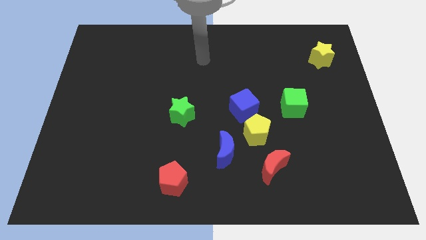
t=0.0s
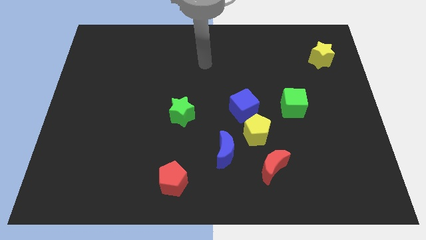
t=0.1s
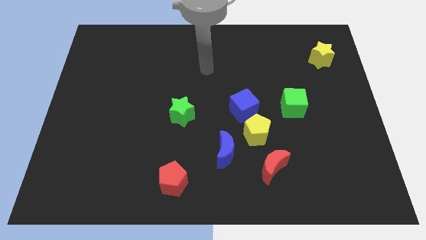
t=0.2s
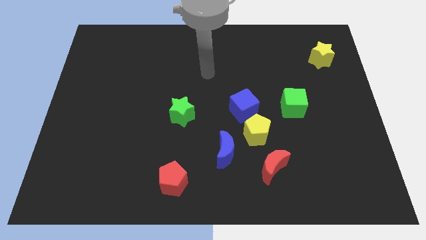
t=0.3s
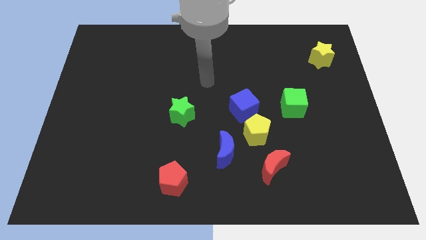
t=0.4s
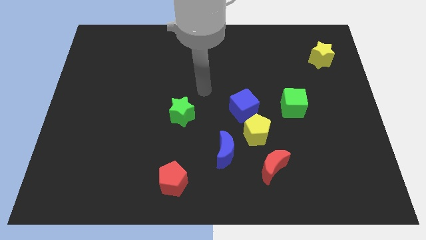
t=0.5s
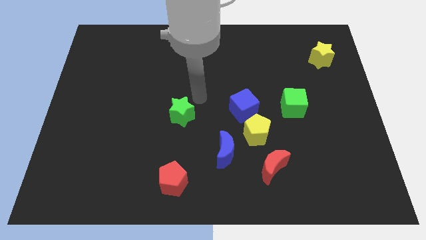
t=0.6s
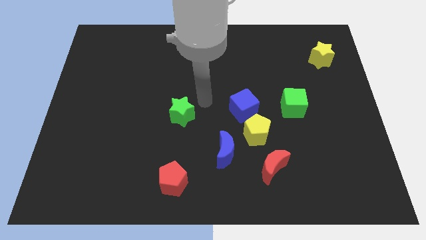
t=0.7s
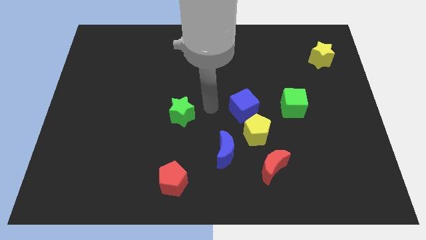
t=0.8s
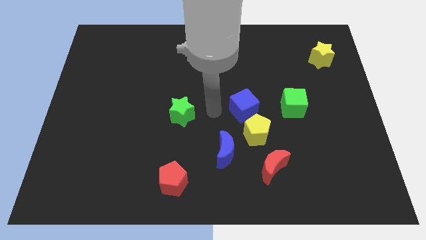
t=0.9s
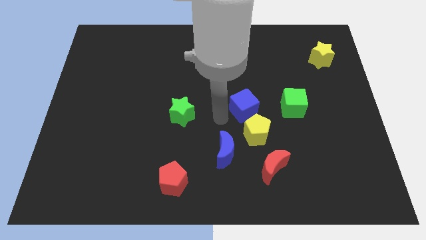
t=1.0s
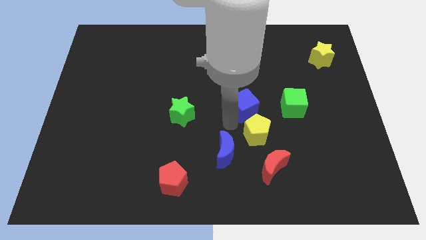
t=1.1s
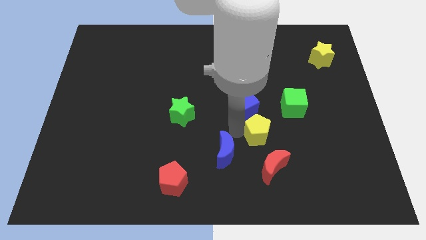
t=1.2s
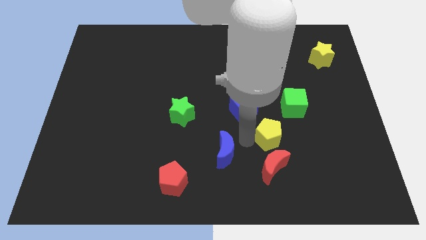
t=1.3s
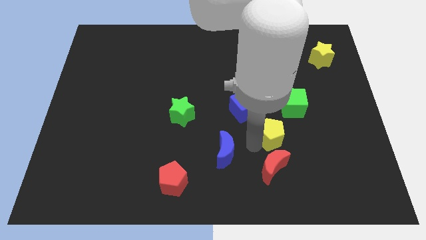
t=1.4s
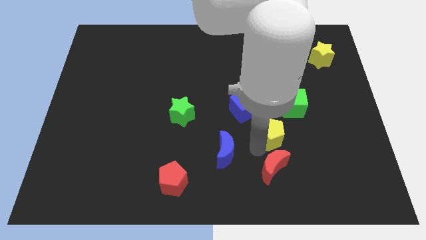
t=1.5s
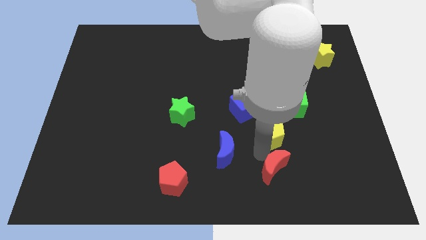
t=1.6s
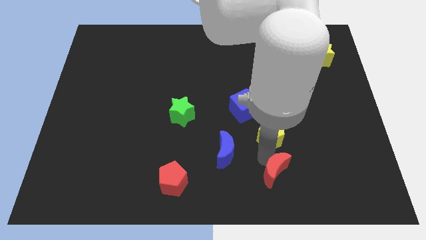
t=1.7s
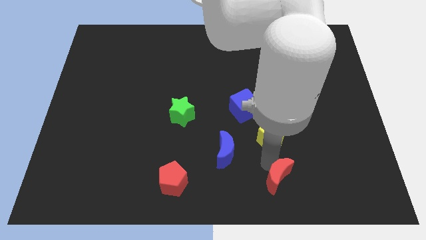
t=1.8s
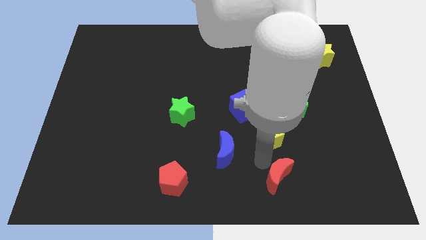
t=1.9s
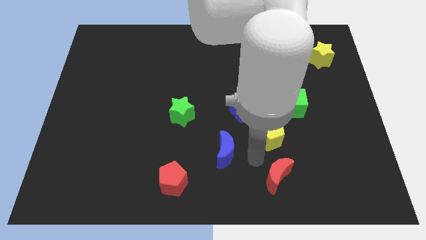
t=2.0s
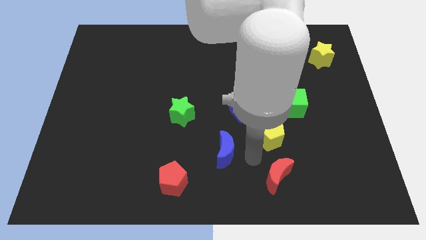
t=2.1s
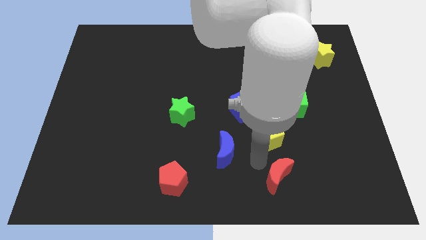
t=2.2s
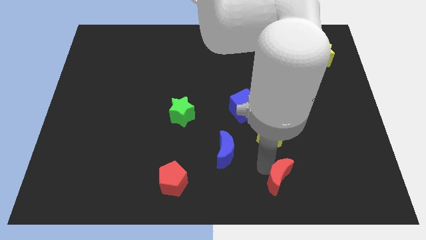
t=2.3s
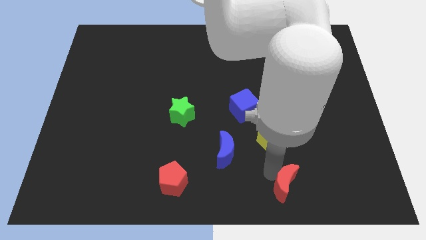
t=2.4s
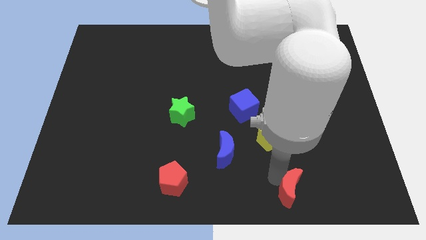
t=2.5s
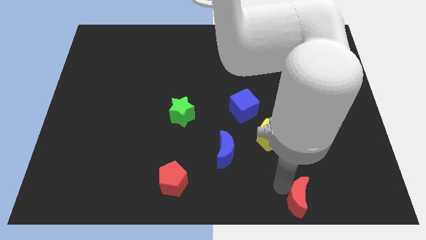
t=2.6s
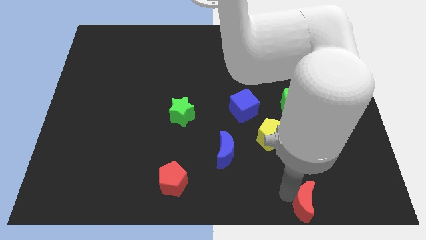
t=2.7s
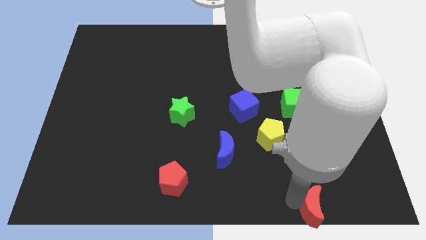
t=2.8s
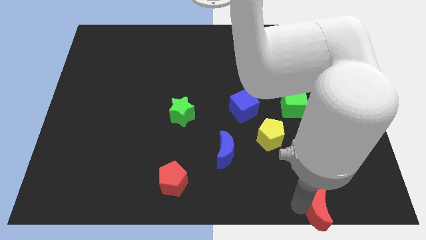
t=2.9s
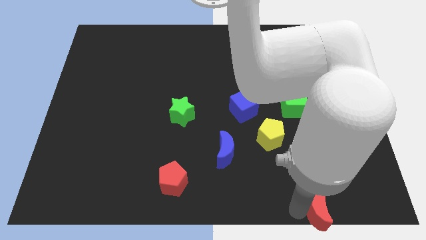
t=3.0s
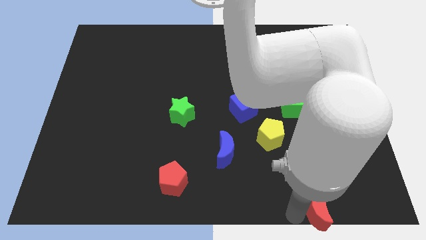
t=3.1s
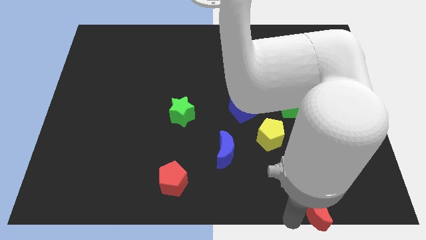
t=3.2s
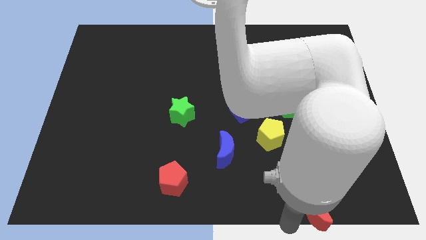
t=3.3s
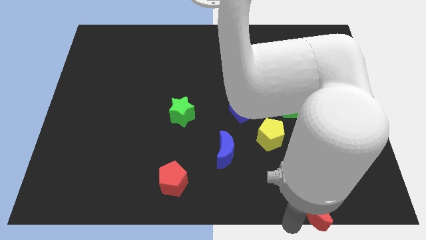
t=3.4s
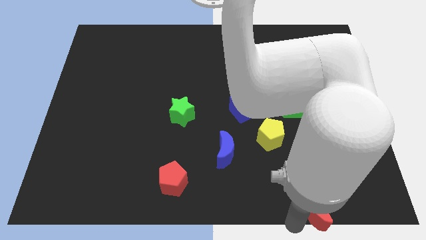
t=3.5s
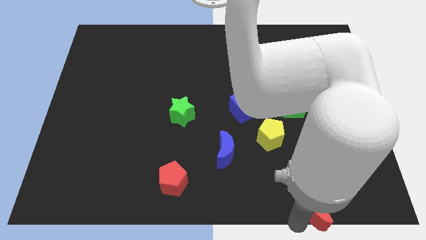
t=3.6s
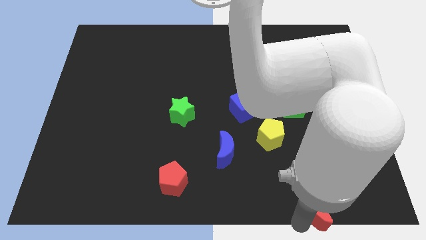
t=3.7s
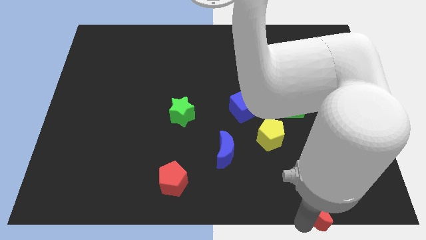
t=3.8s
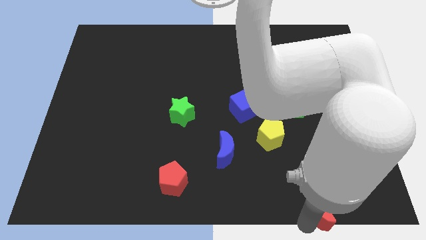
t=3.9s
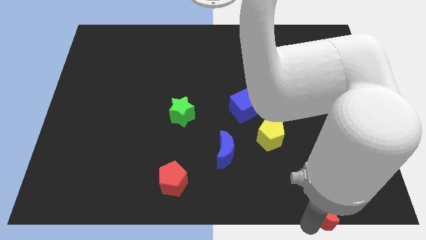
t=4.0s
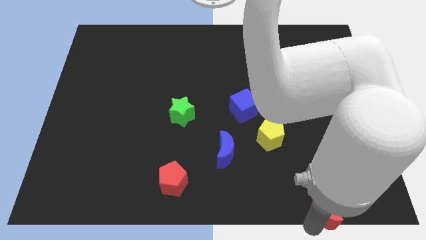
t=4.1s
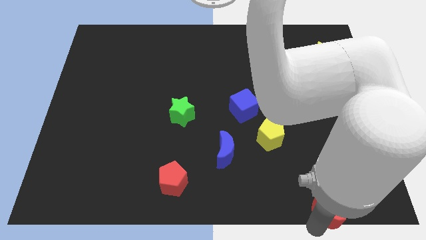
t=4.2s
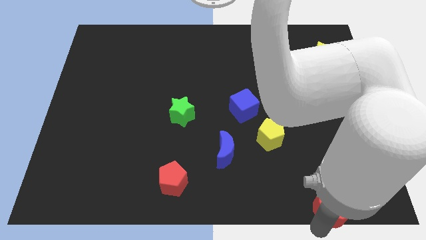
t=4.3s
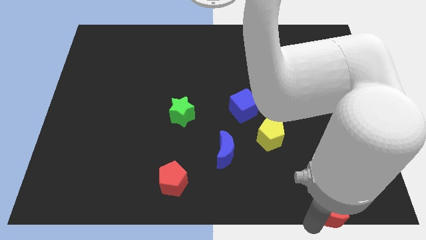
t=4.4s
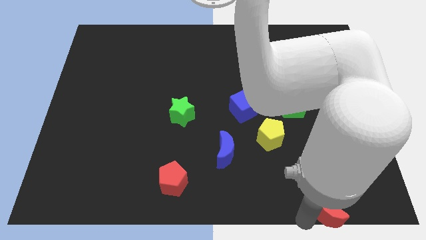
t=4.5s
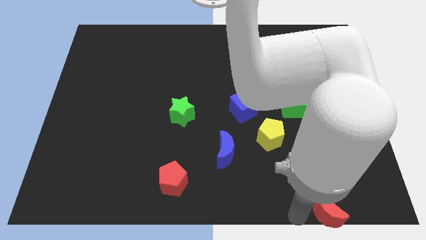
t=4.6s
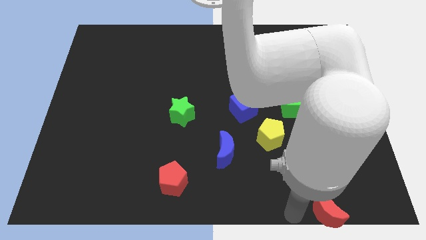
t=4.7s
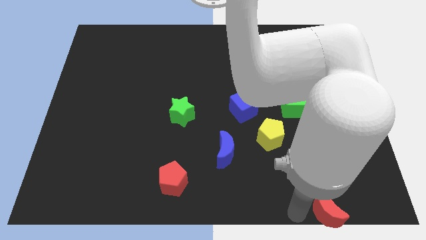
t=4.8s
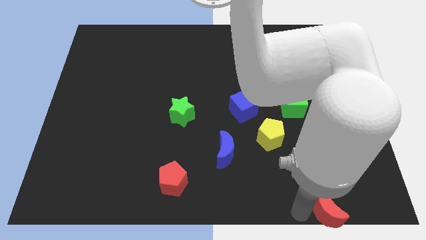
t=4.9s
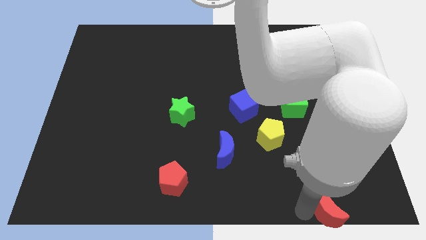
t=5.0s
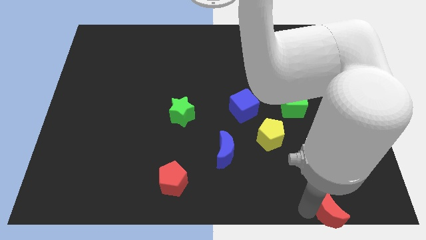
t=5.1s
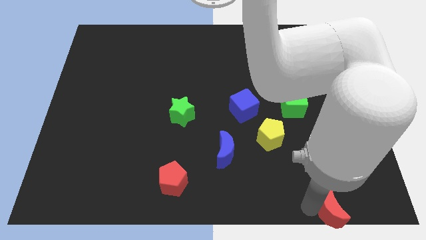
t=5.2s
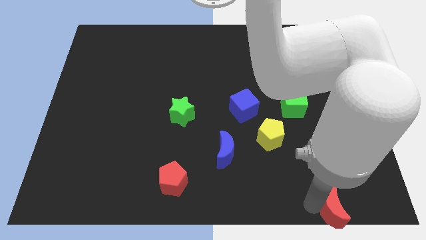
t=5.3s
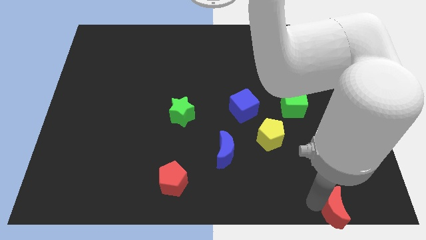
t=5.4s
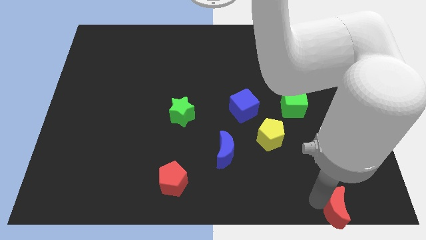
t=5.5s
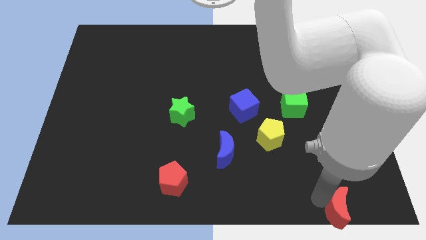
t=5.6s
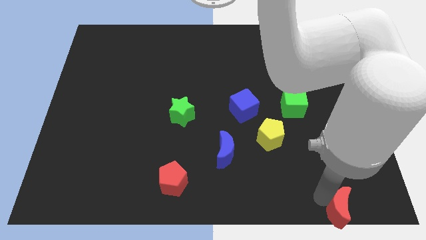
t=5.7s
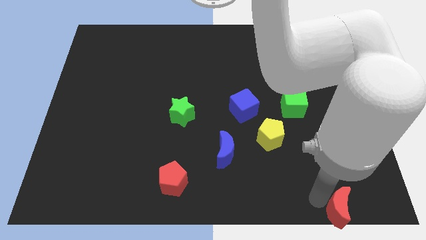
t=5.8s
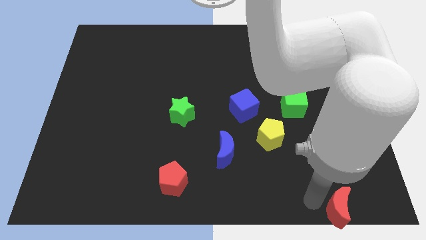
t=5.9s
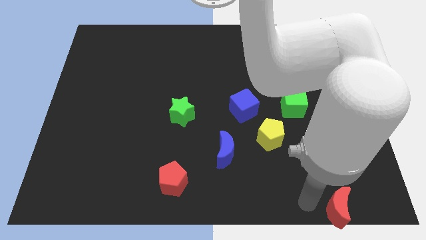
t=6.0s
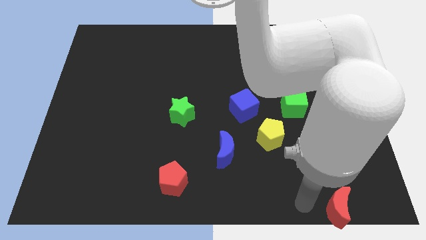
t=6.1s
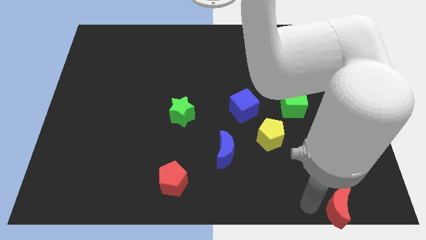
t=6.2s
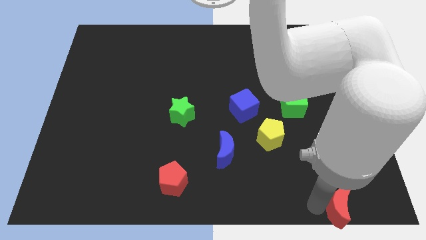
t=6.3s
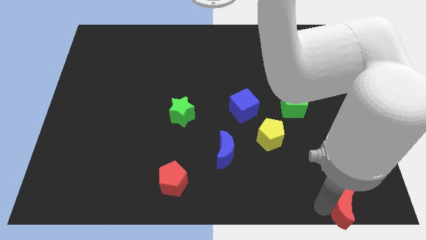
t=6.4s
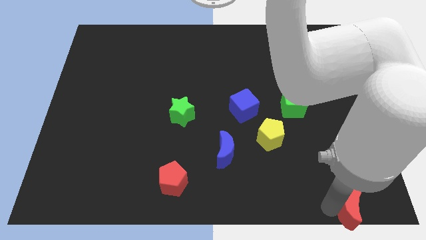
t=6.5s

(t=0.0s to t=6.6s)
slide the red moon to the bottom right corner

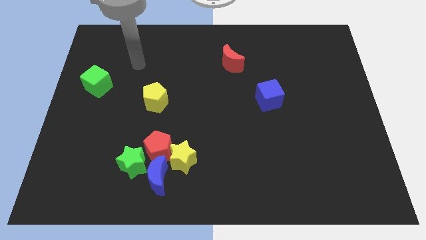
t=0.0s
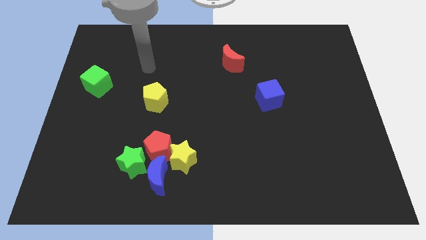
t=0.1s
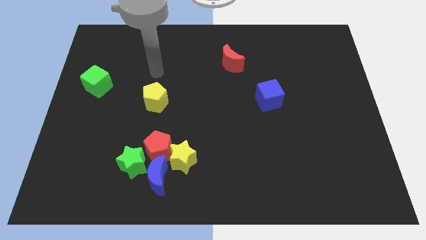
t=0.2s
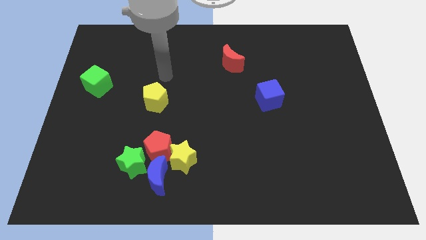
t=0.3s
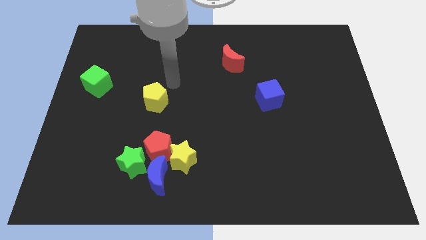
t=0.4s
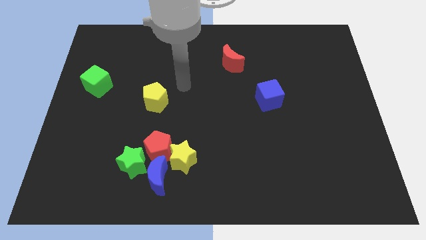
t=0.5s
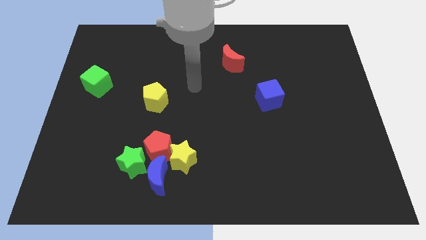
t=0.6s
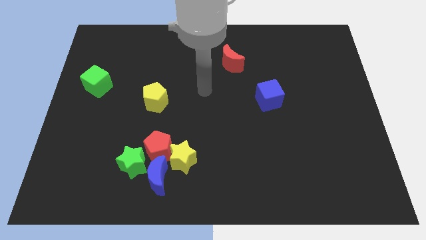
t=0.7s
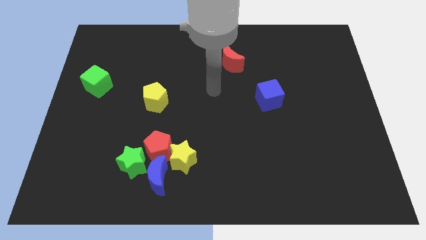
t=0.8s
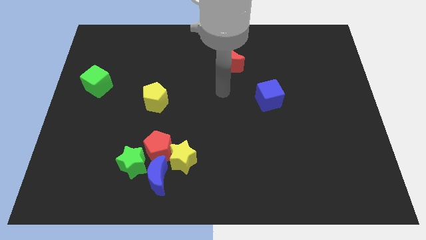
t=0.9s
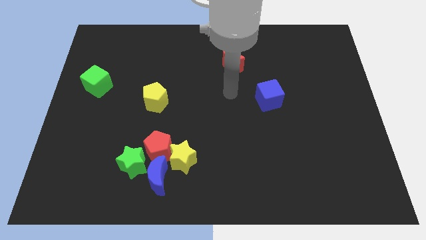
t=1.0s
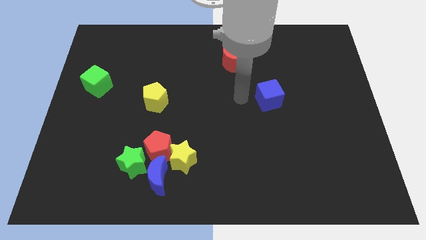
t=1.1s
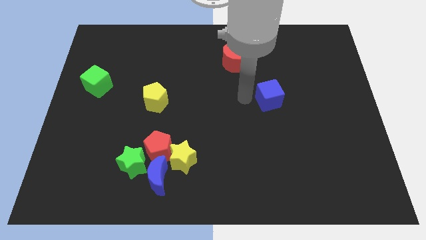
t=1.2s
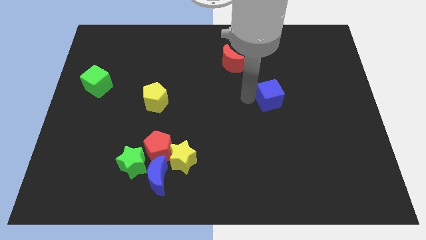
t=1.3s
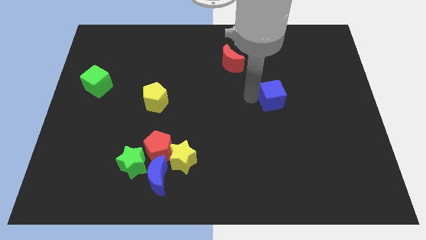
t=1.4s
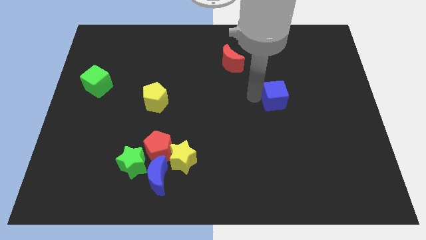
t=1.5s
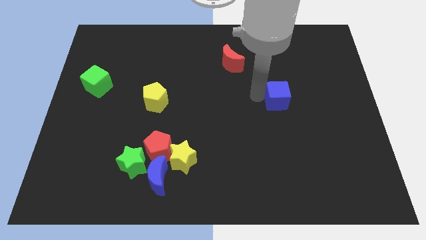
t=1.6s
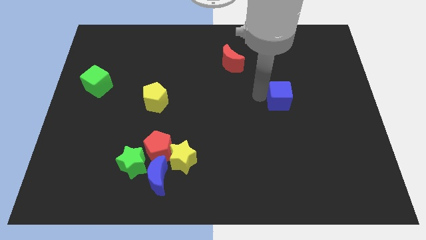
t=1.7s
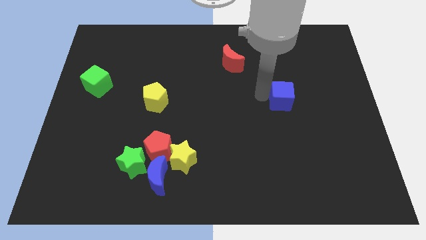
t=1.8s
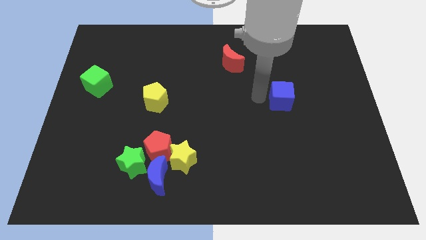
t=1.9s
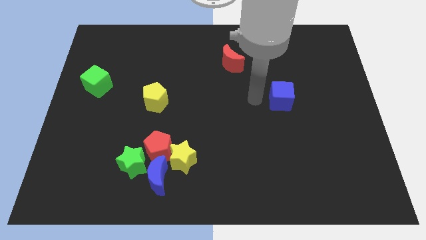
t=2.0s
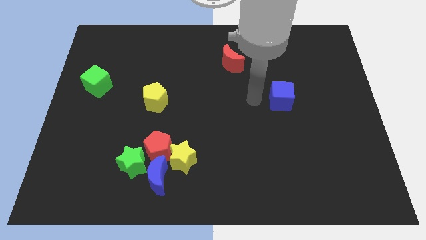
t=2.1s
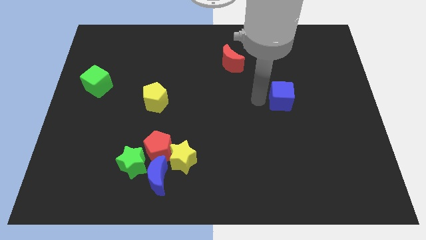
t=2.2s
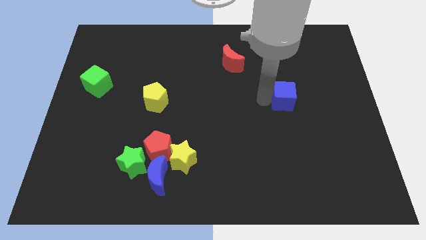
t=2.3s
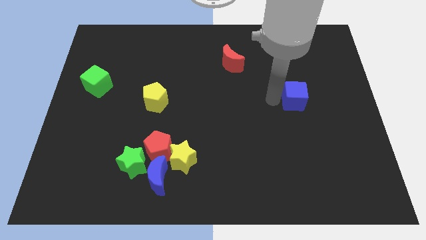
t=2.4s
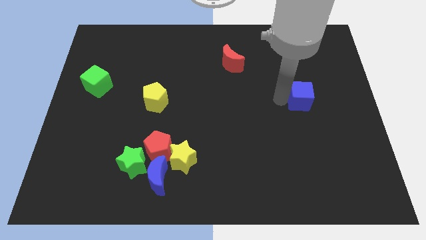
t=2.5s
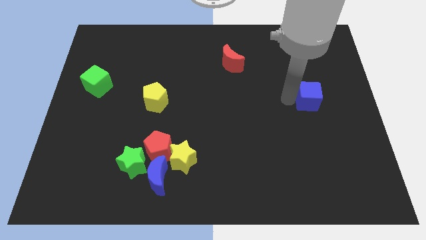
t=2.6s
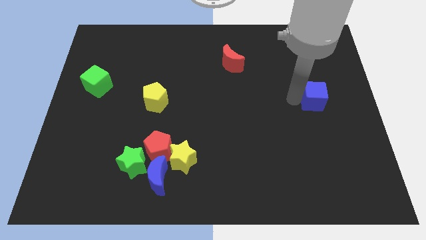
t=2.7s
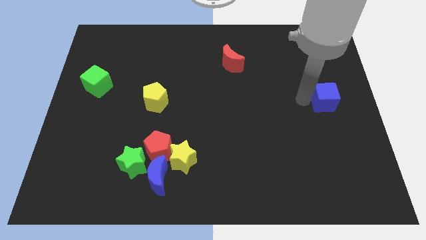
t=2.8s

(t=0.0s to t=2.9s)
move the blue cube to the right side of the board
